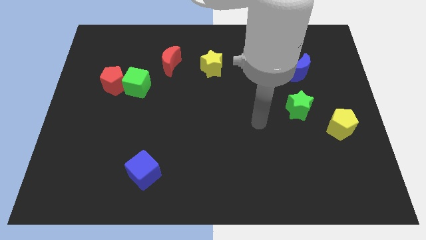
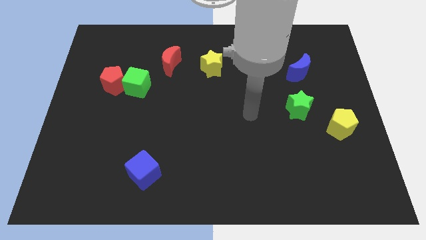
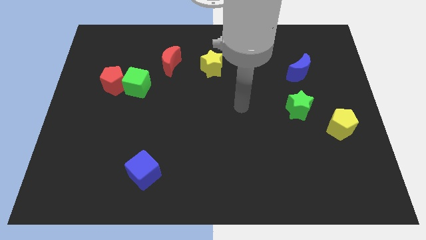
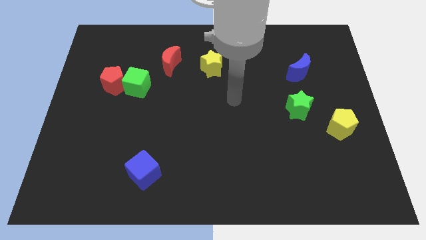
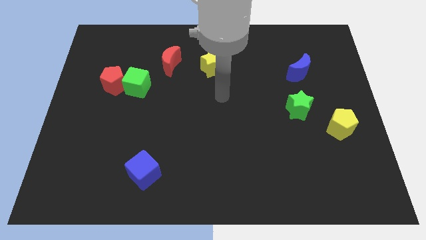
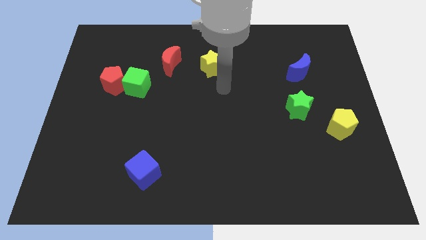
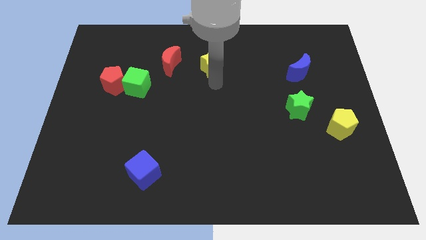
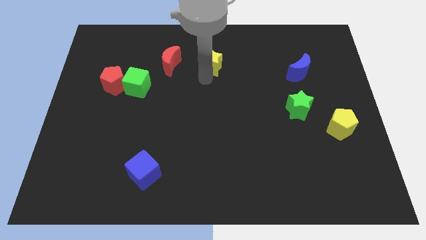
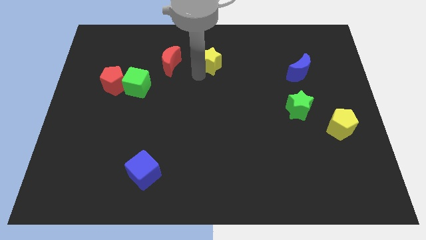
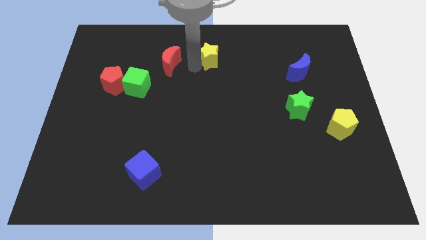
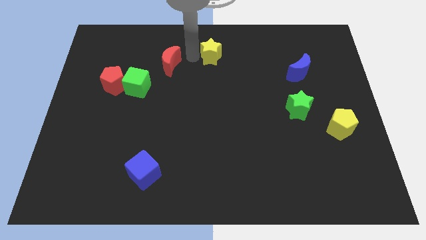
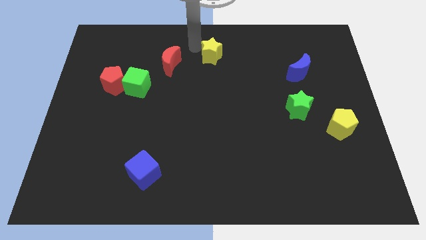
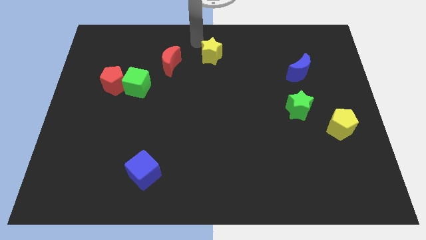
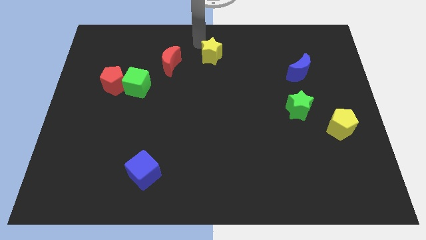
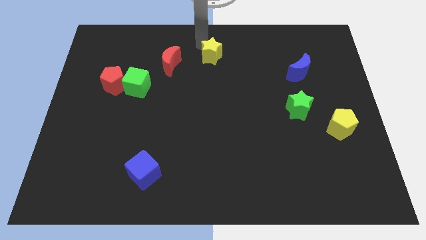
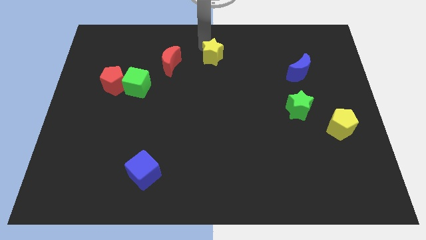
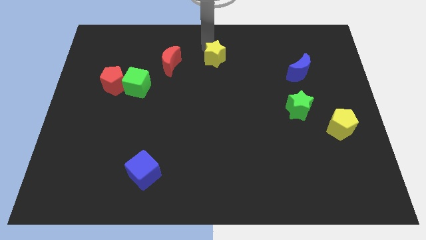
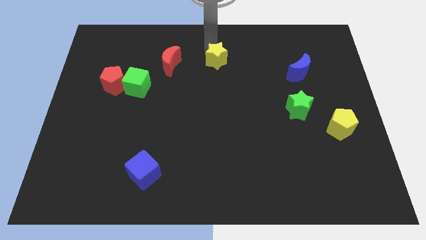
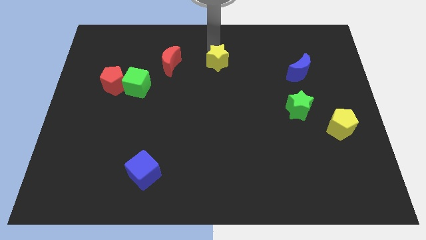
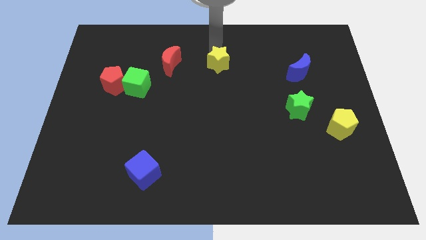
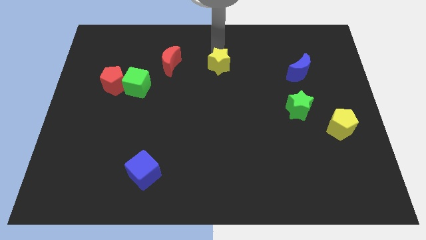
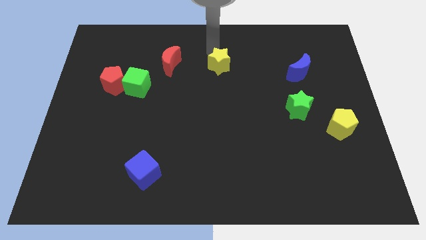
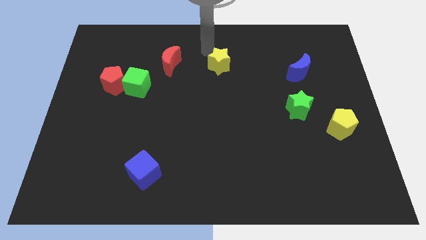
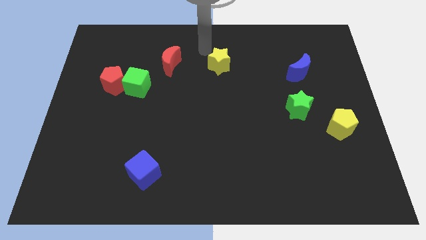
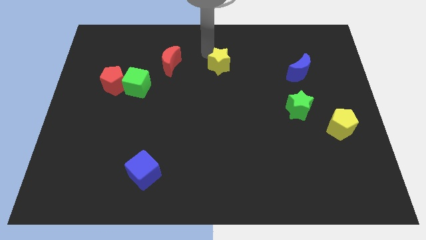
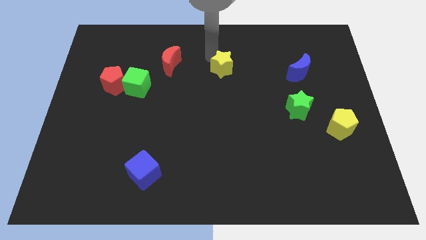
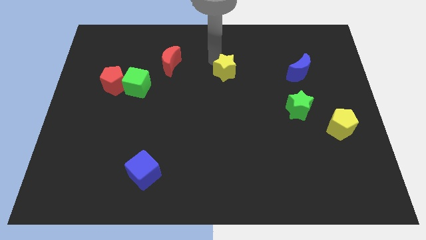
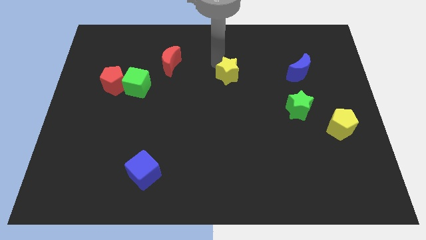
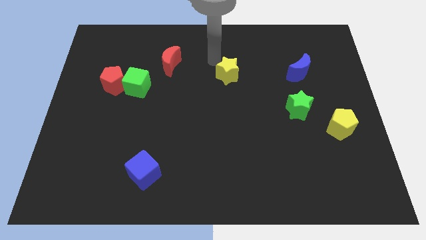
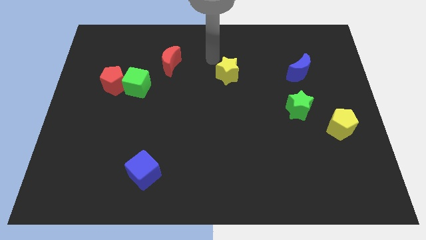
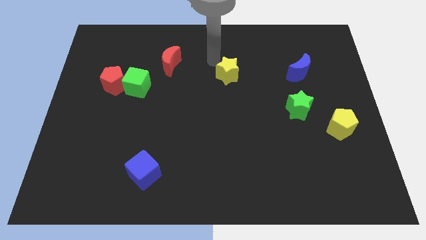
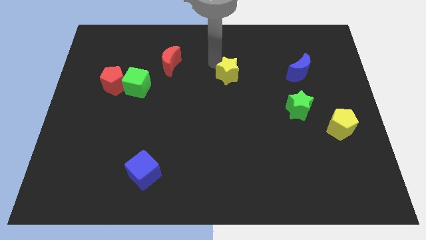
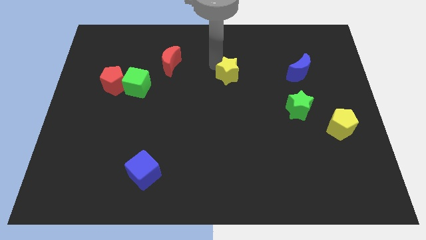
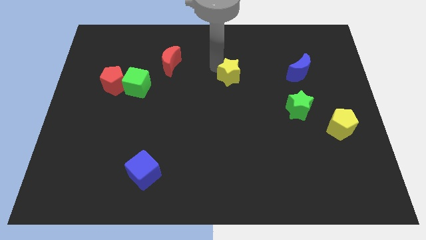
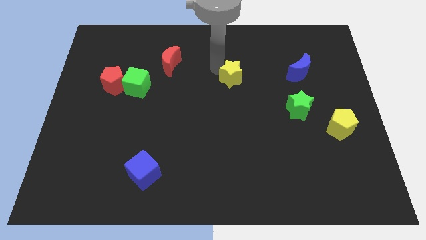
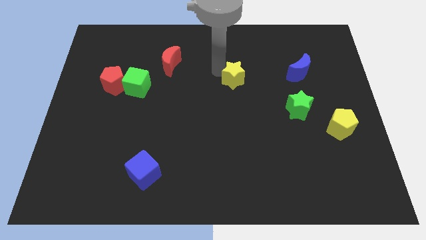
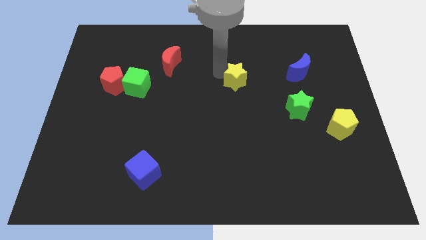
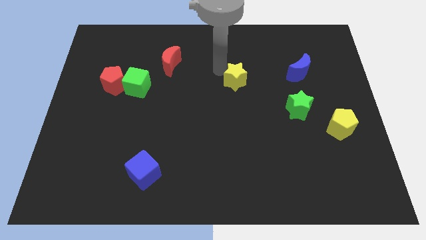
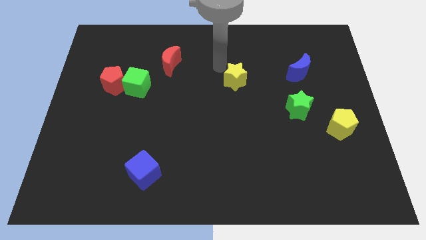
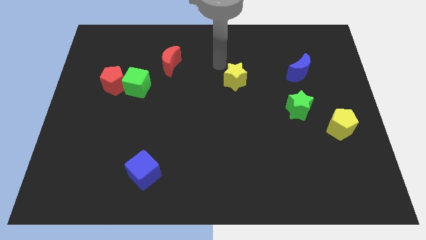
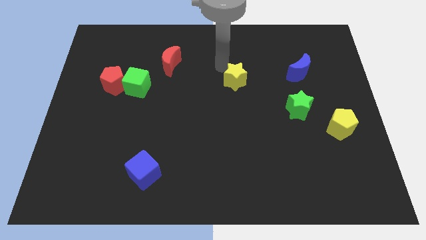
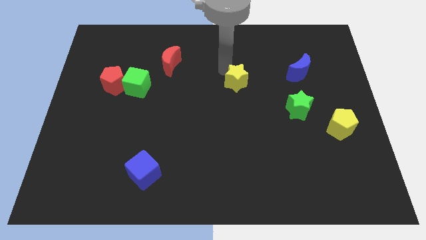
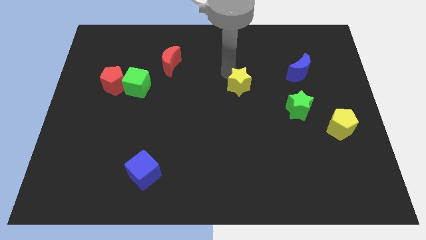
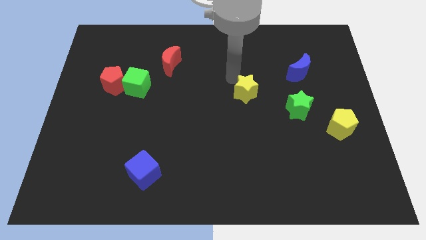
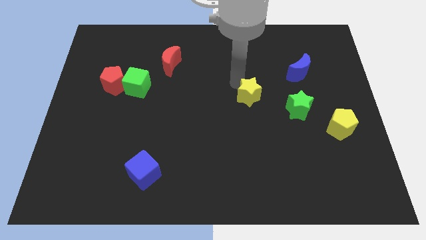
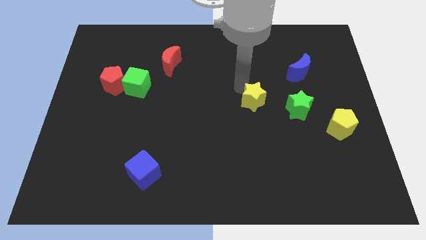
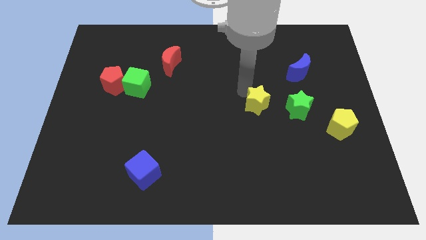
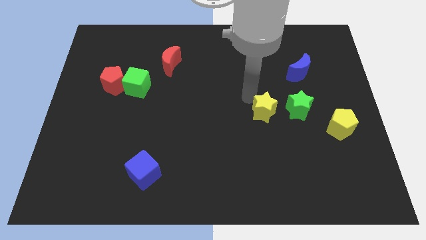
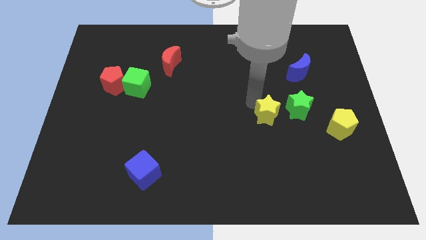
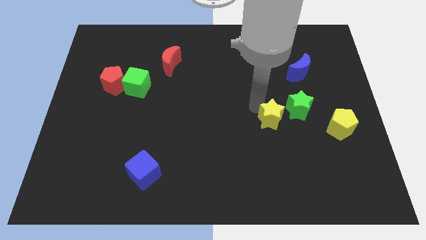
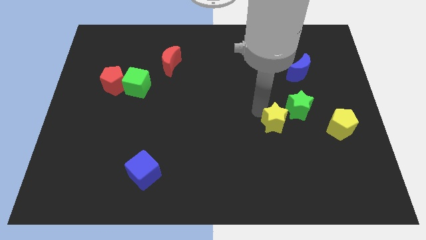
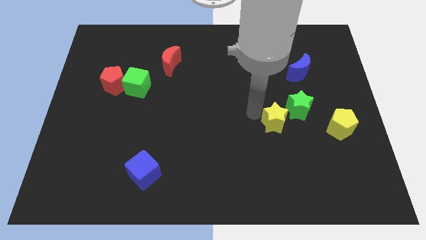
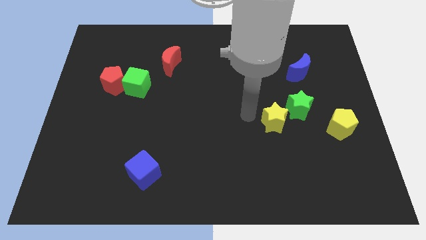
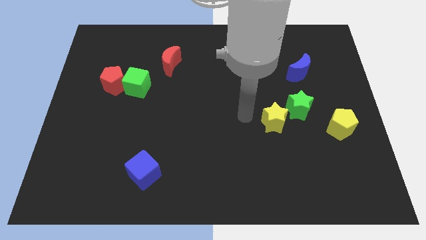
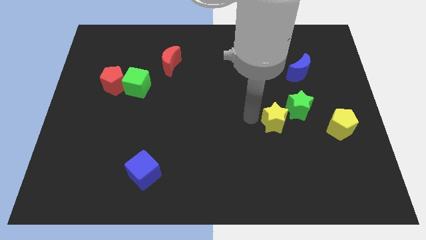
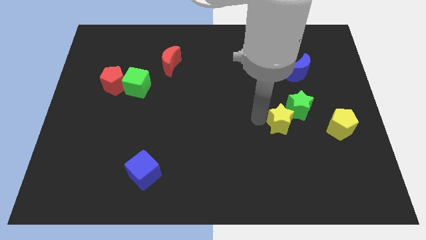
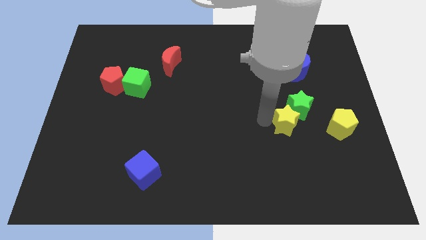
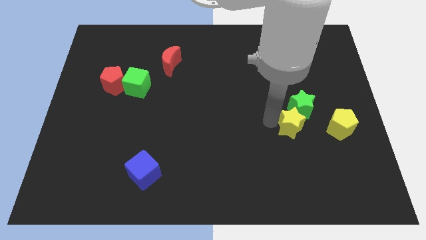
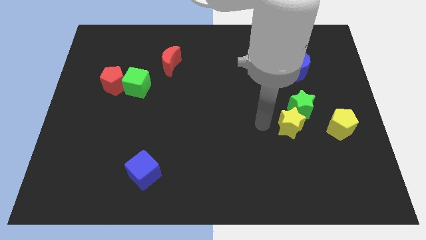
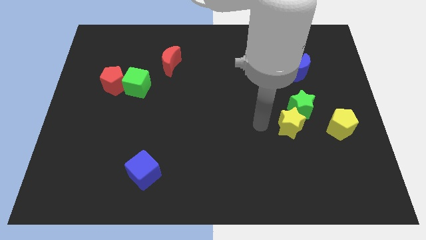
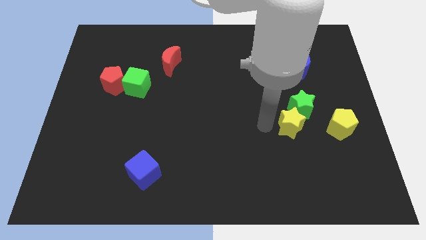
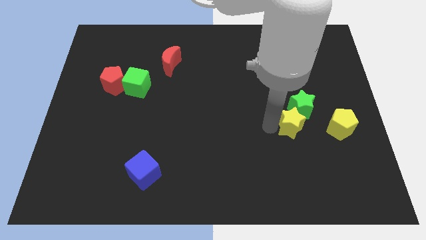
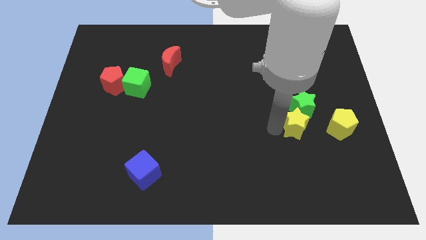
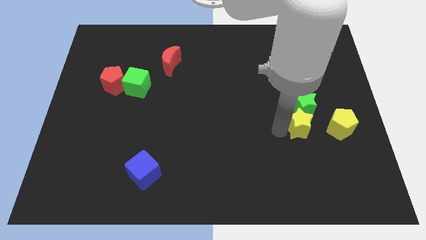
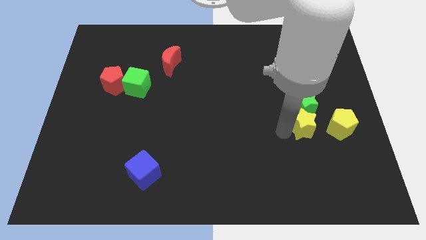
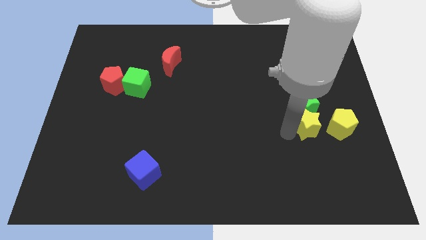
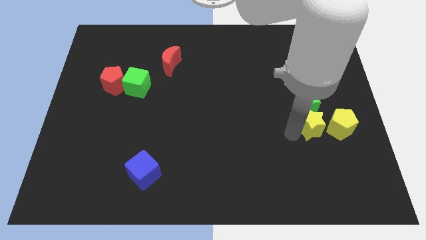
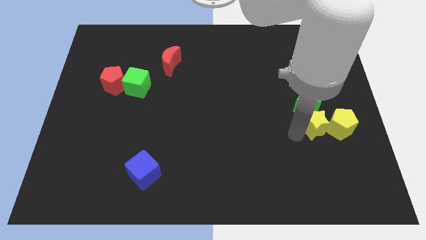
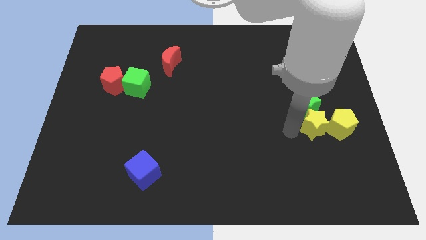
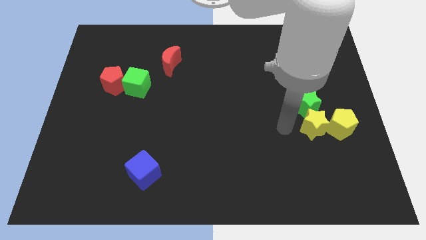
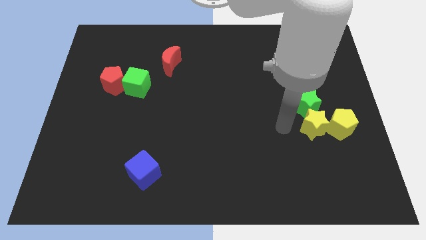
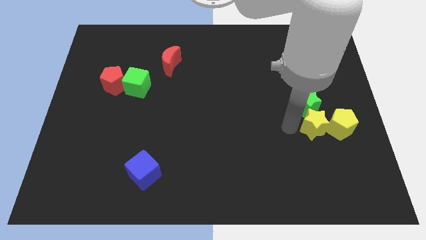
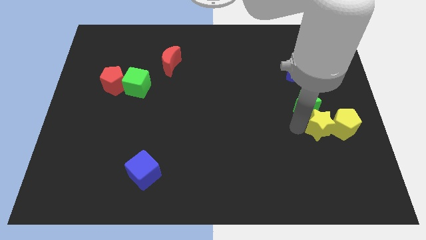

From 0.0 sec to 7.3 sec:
move the yellow star next to the yellow pentagon

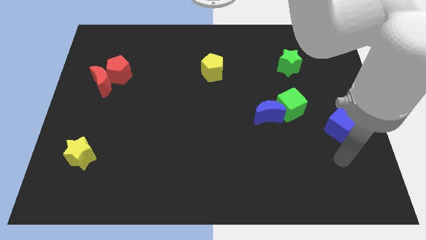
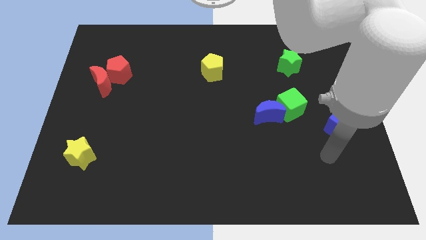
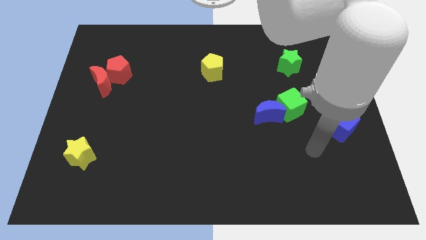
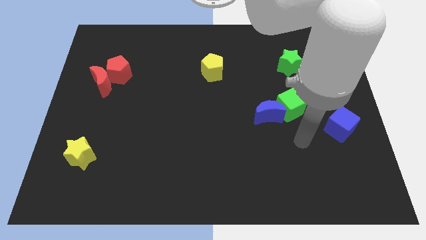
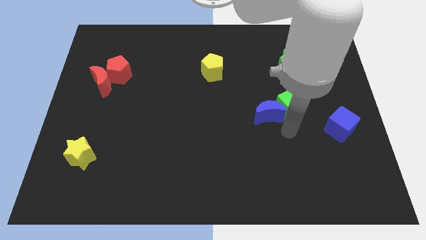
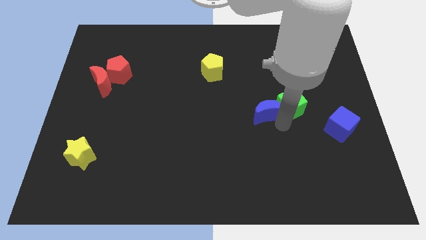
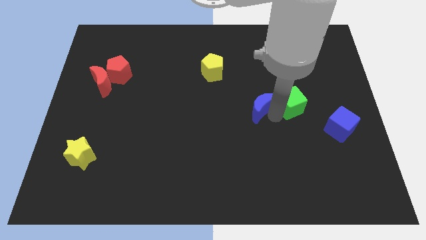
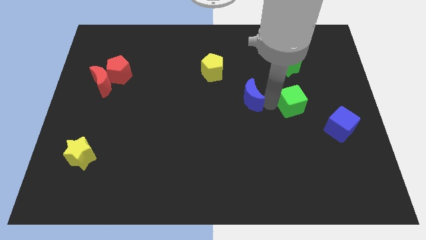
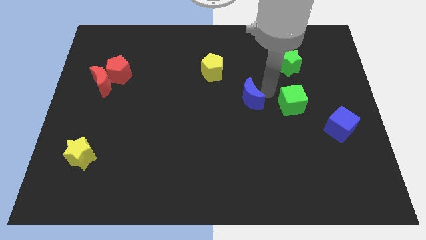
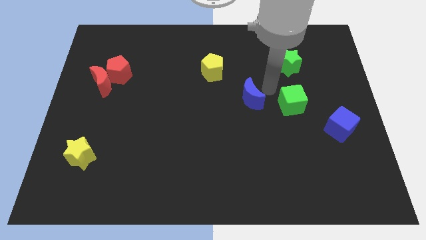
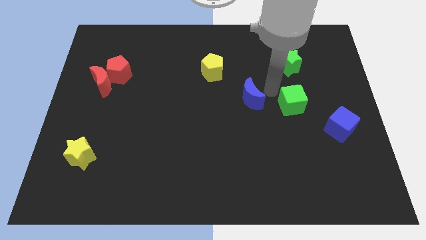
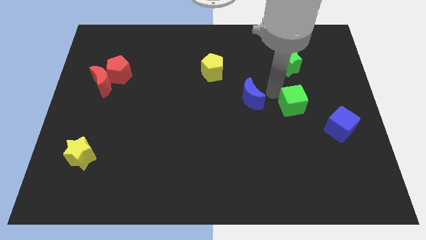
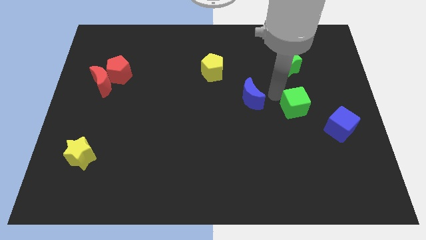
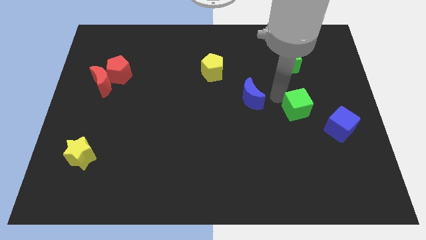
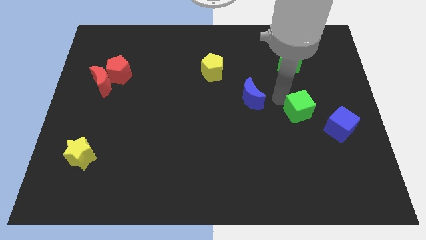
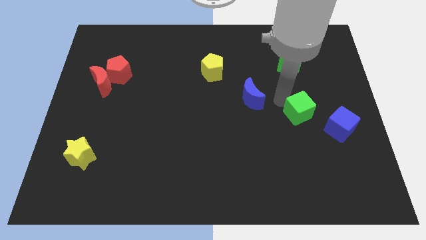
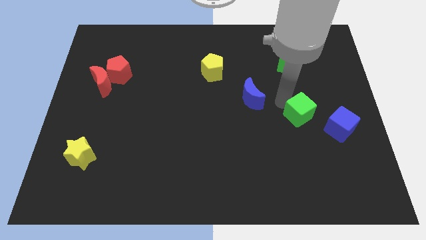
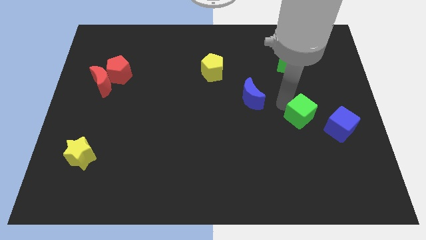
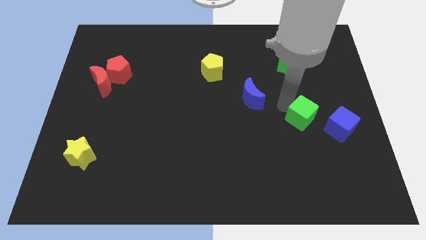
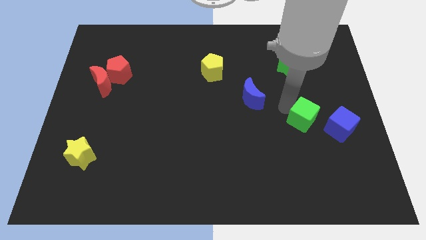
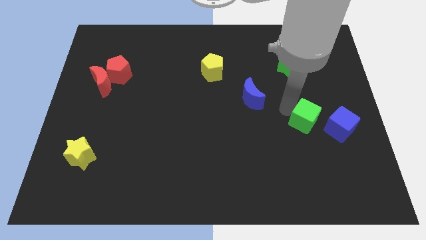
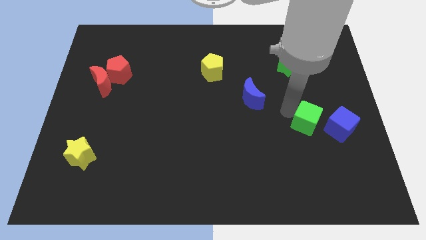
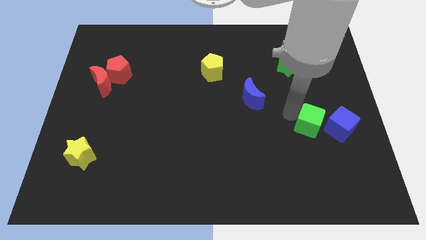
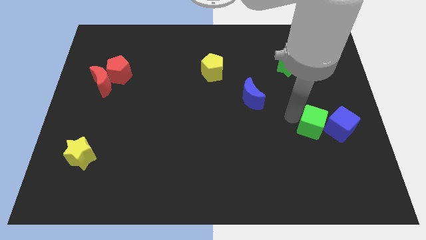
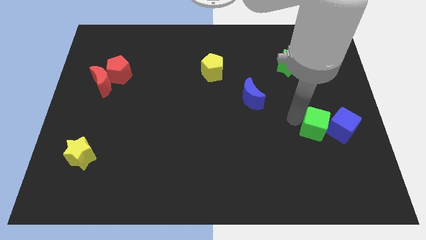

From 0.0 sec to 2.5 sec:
slide the green cube towards the blue cube
